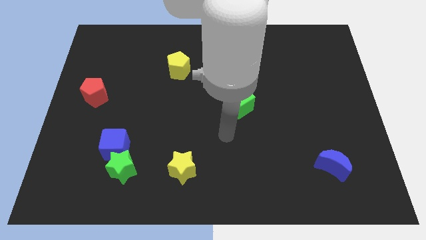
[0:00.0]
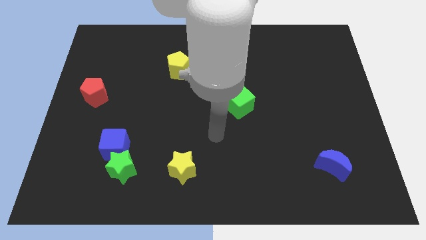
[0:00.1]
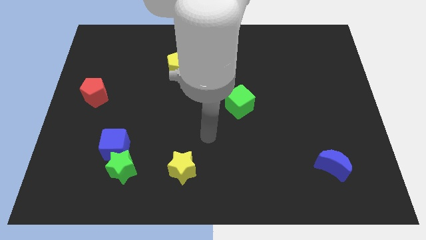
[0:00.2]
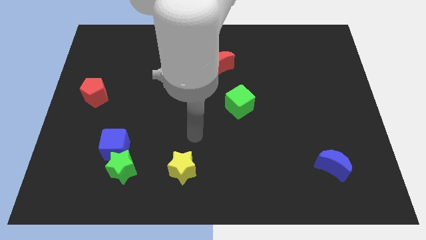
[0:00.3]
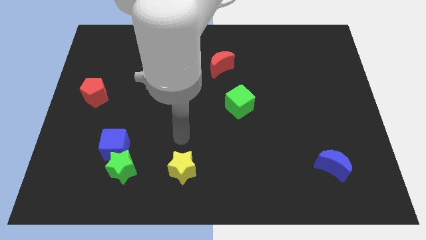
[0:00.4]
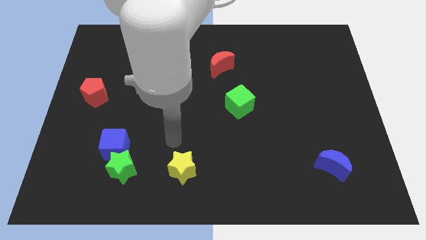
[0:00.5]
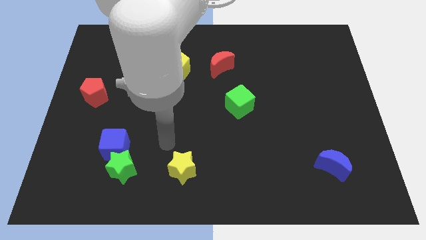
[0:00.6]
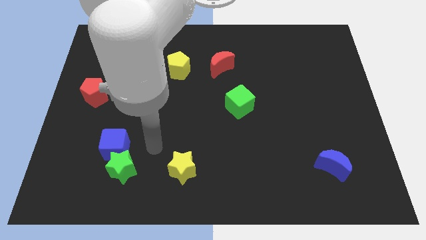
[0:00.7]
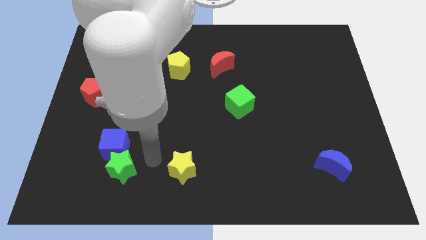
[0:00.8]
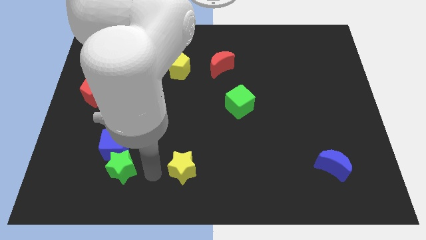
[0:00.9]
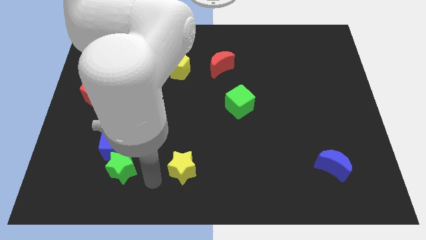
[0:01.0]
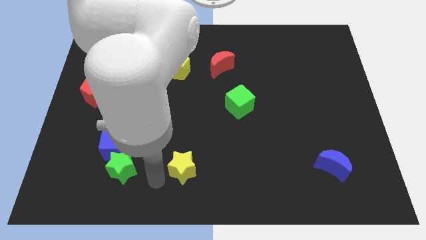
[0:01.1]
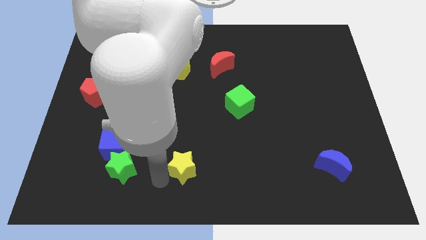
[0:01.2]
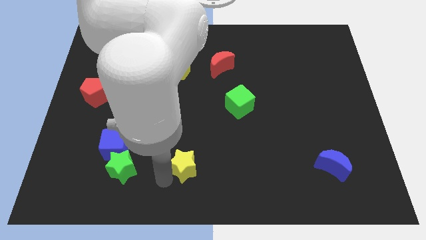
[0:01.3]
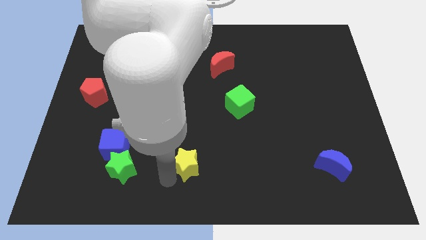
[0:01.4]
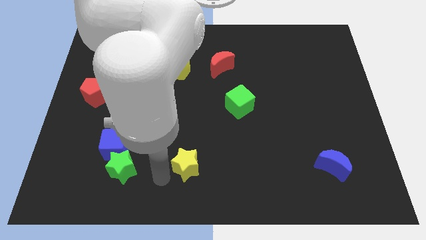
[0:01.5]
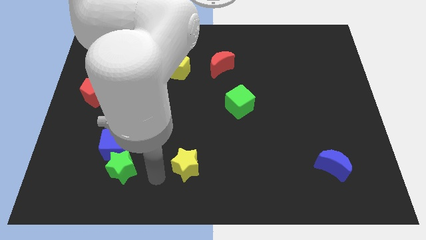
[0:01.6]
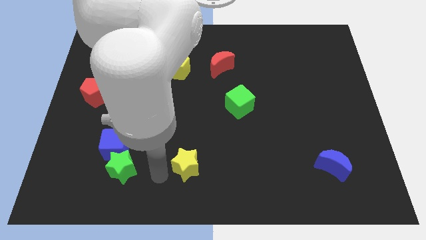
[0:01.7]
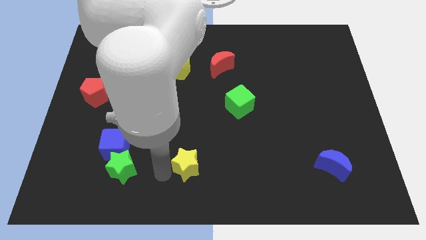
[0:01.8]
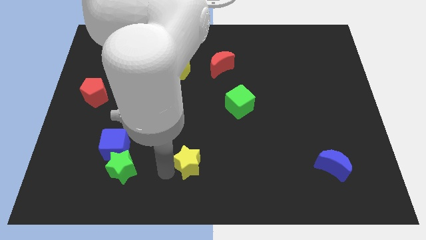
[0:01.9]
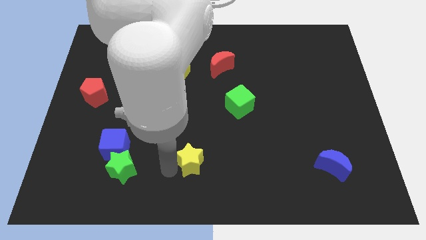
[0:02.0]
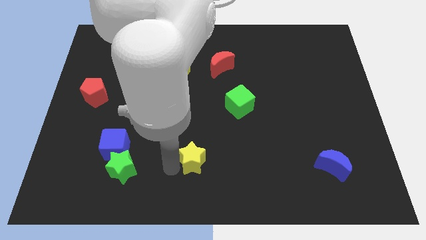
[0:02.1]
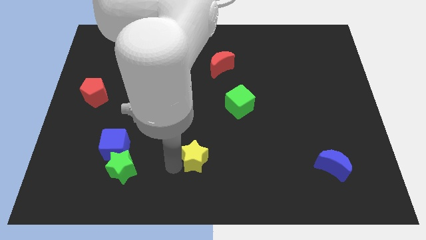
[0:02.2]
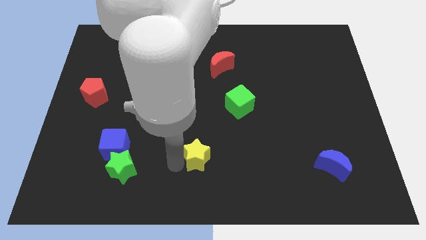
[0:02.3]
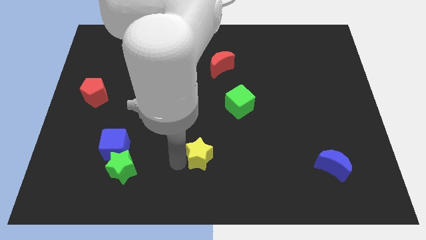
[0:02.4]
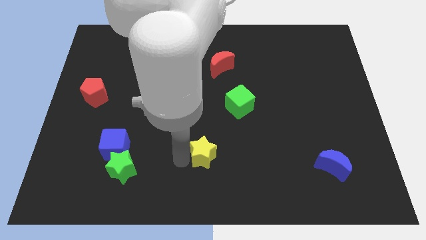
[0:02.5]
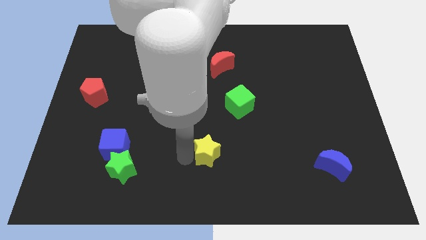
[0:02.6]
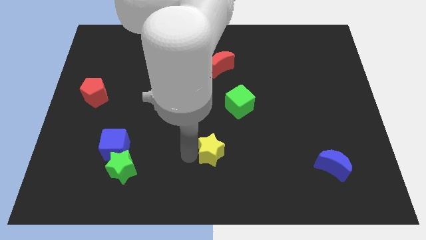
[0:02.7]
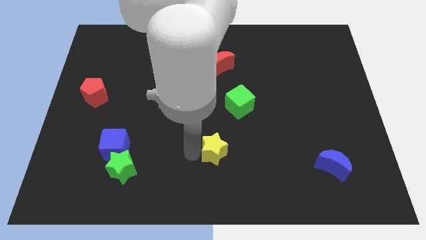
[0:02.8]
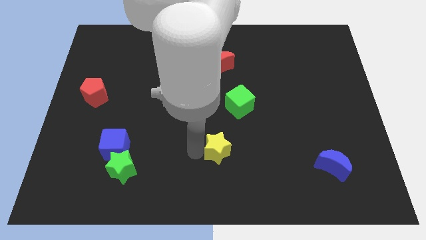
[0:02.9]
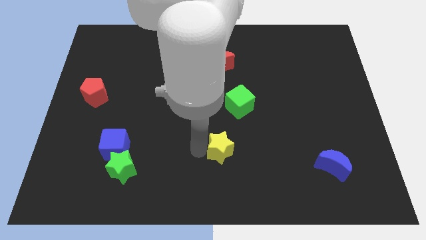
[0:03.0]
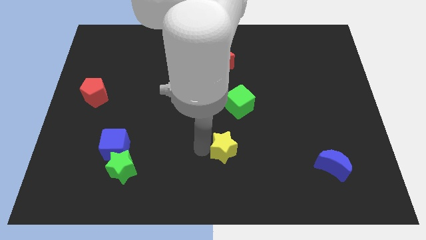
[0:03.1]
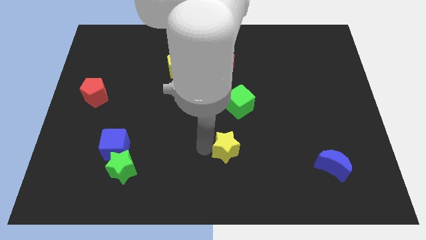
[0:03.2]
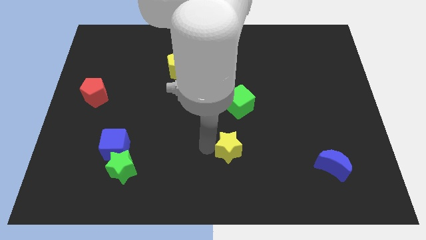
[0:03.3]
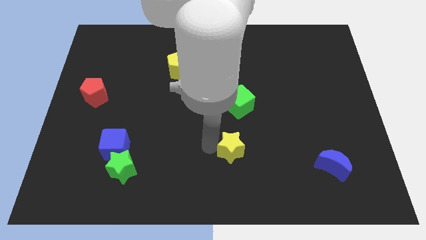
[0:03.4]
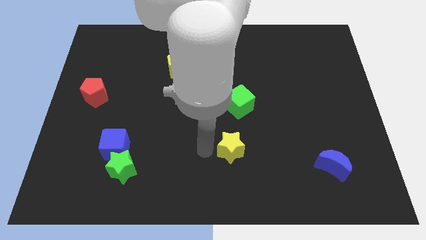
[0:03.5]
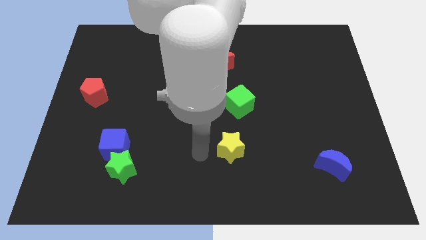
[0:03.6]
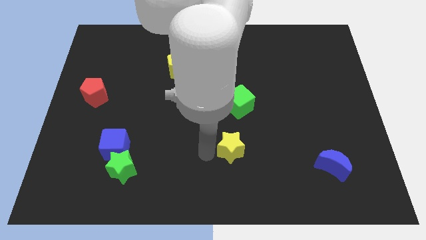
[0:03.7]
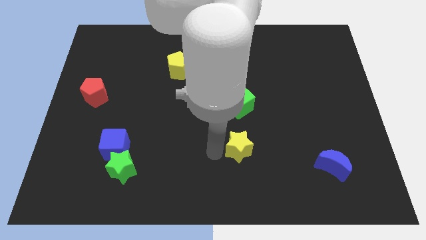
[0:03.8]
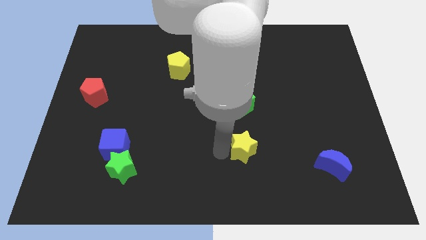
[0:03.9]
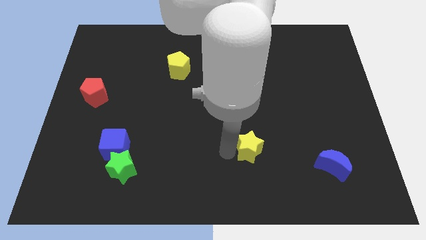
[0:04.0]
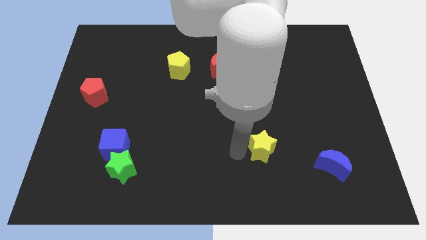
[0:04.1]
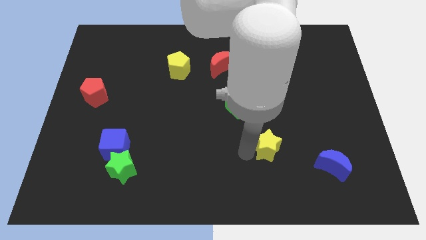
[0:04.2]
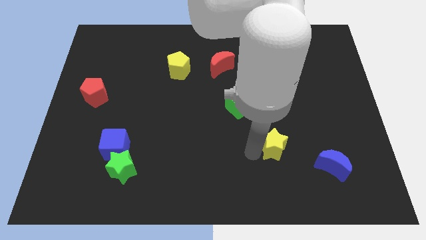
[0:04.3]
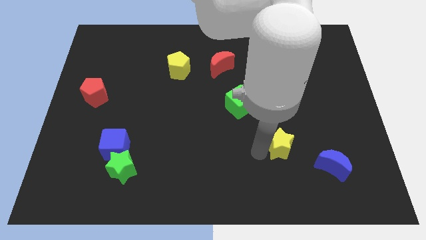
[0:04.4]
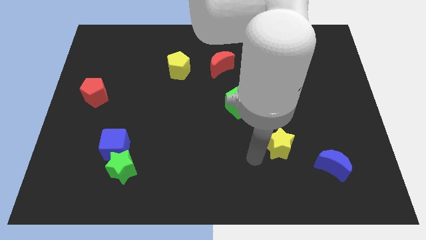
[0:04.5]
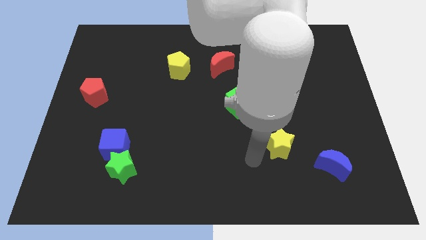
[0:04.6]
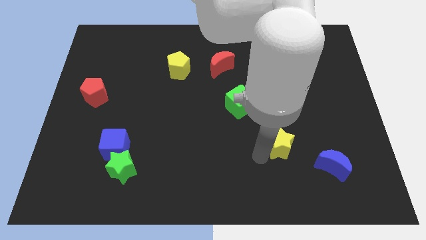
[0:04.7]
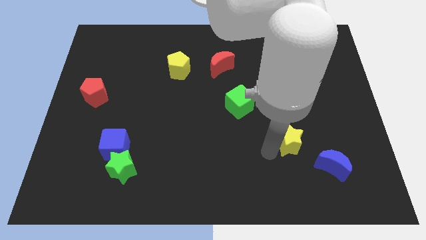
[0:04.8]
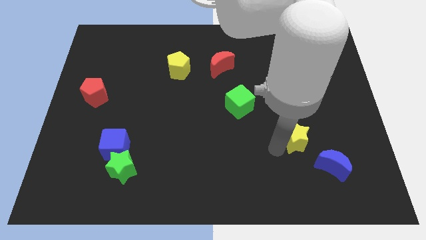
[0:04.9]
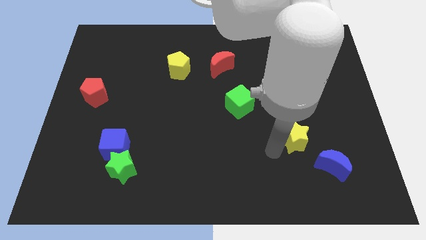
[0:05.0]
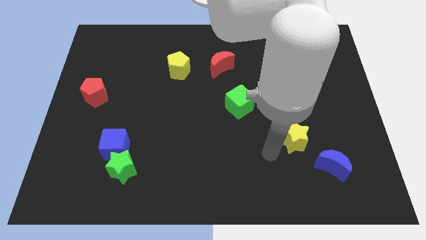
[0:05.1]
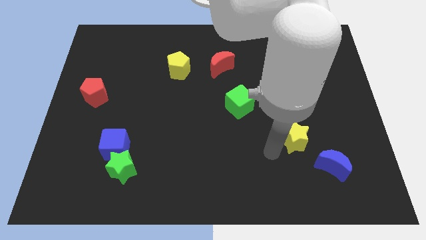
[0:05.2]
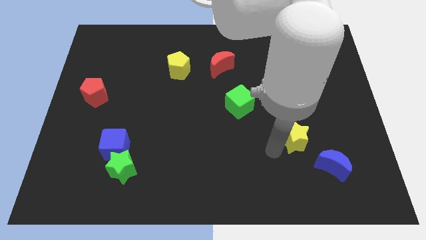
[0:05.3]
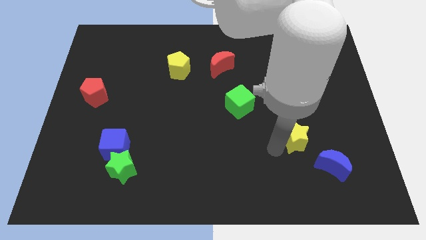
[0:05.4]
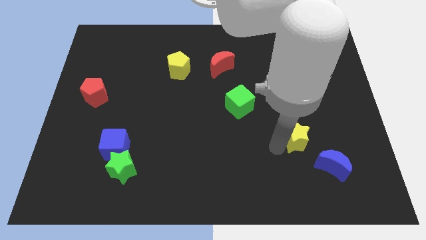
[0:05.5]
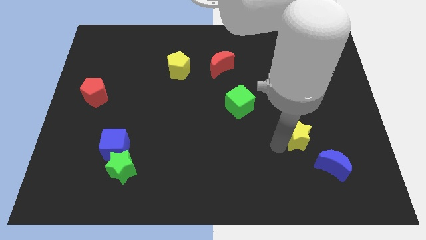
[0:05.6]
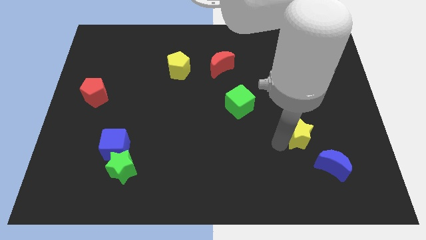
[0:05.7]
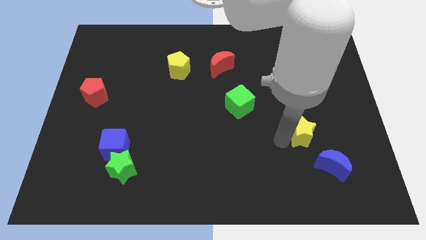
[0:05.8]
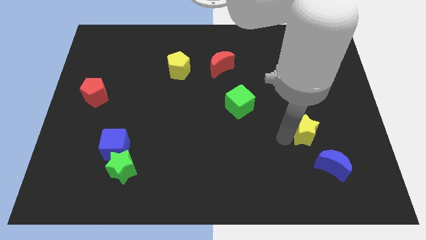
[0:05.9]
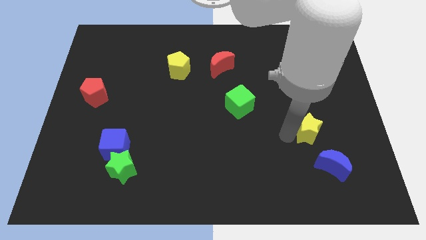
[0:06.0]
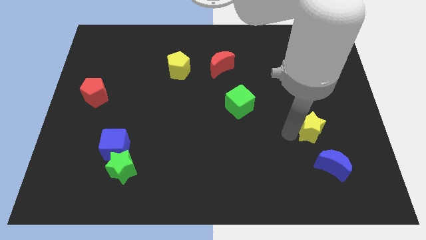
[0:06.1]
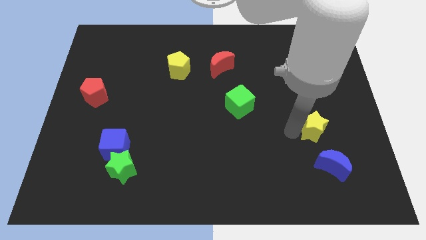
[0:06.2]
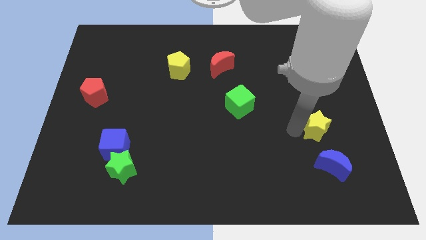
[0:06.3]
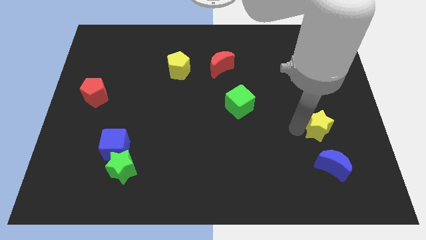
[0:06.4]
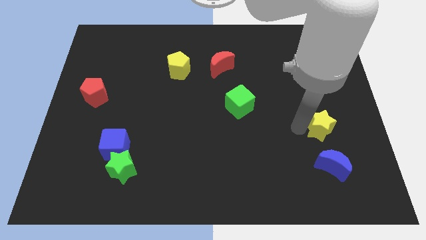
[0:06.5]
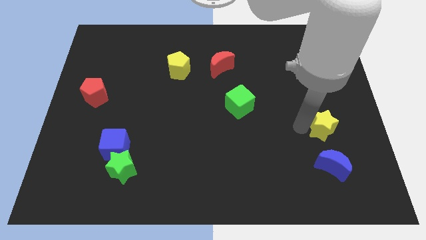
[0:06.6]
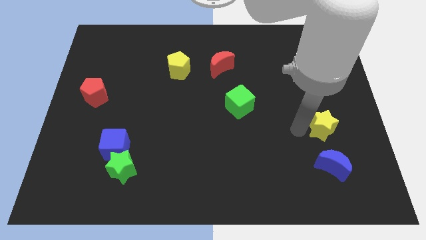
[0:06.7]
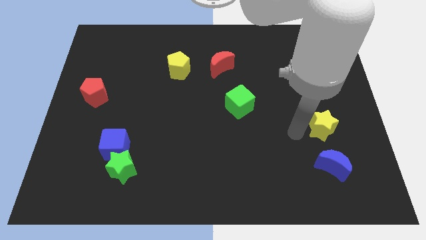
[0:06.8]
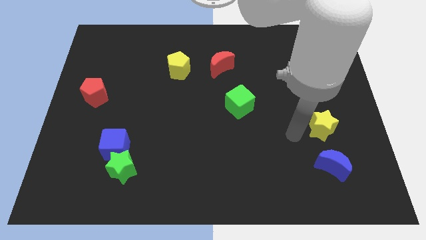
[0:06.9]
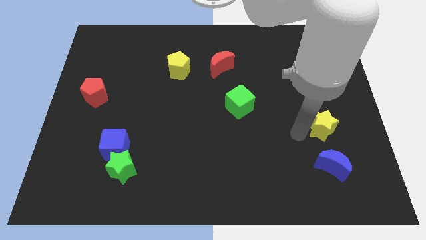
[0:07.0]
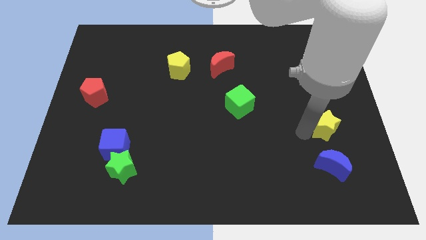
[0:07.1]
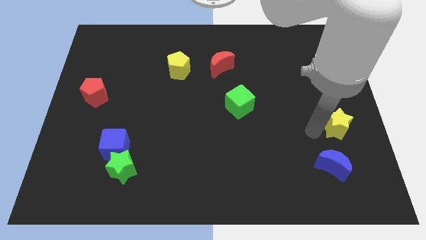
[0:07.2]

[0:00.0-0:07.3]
push the yellow star to the center right
